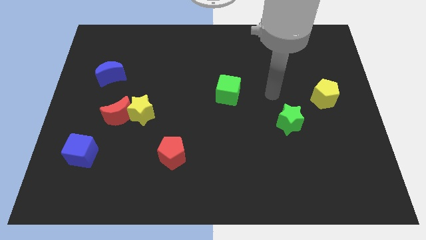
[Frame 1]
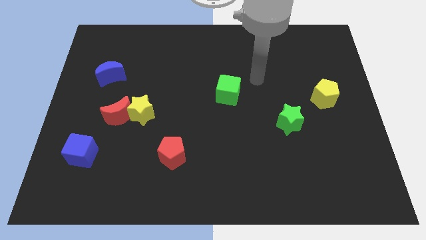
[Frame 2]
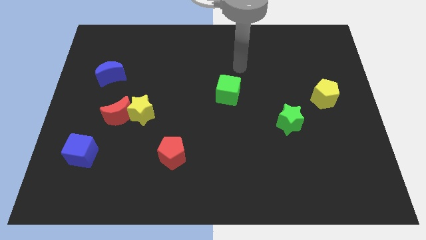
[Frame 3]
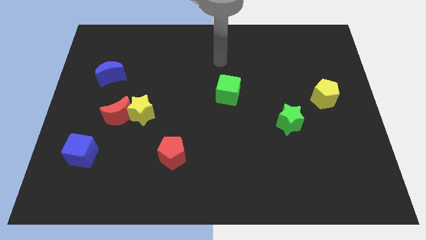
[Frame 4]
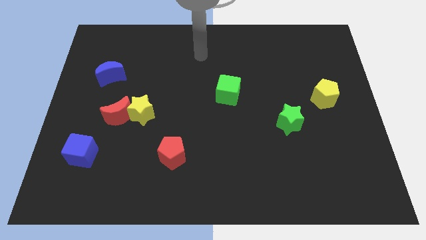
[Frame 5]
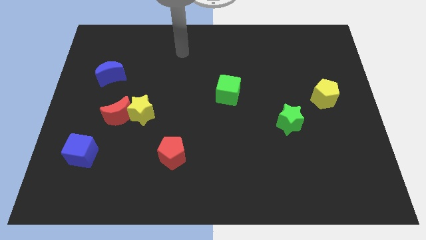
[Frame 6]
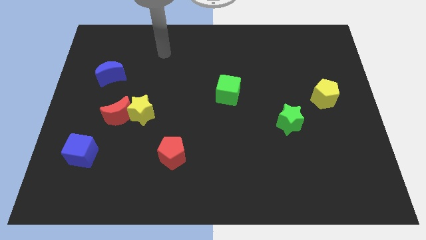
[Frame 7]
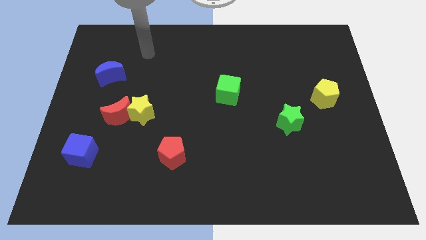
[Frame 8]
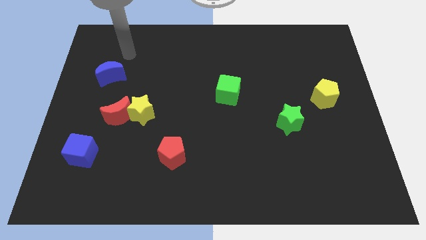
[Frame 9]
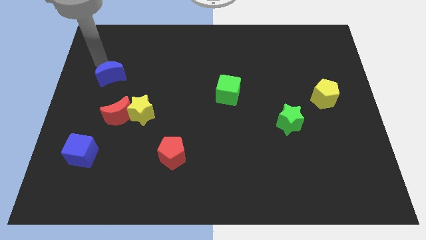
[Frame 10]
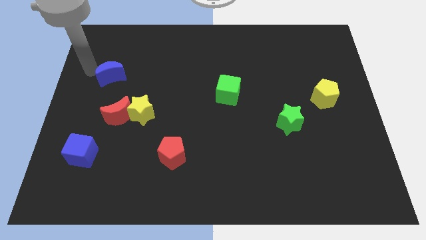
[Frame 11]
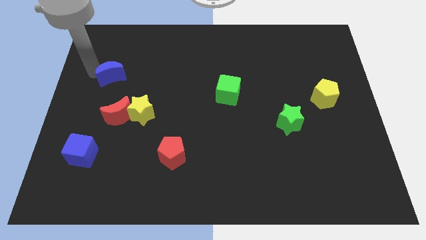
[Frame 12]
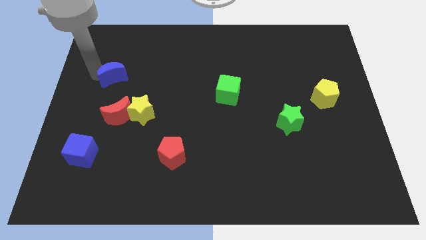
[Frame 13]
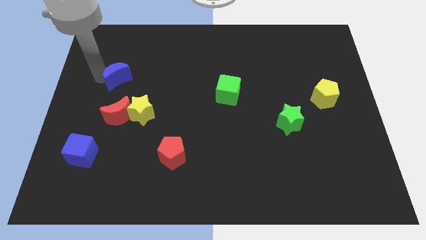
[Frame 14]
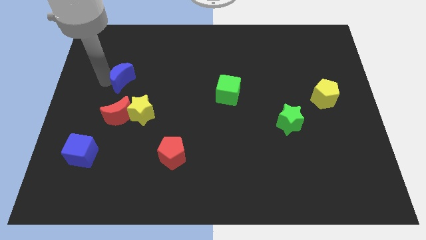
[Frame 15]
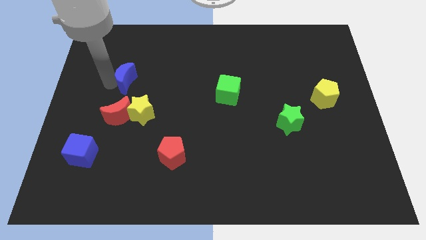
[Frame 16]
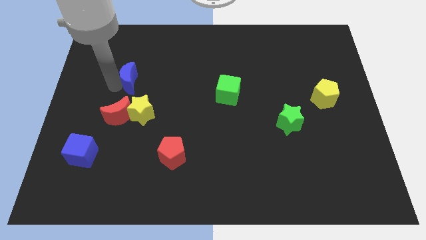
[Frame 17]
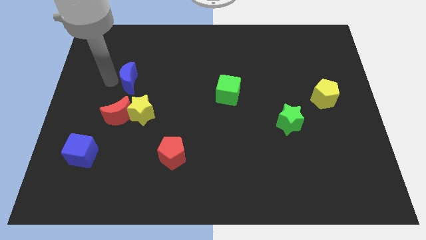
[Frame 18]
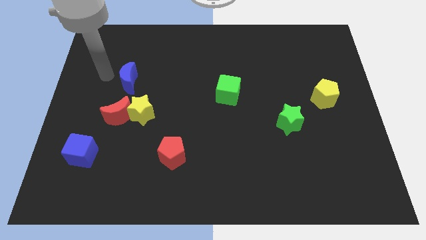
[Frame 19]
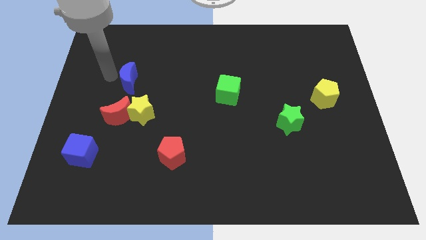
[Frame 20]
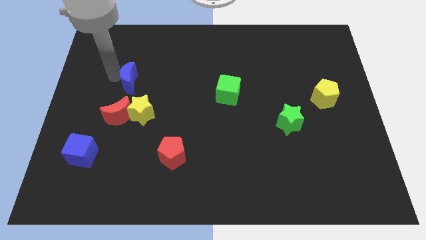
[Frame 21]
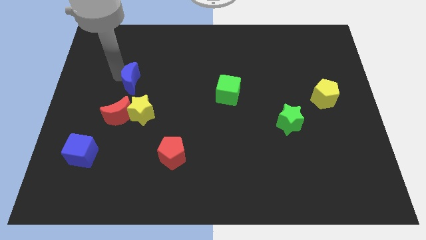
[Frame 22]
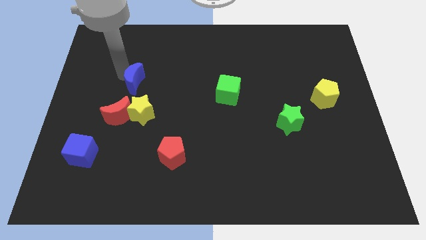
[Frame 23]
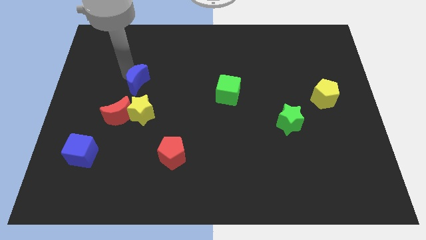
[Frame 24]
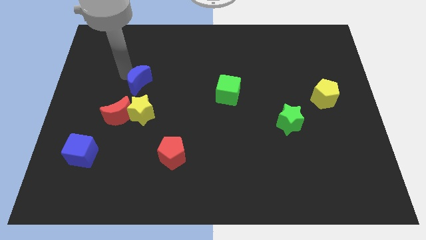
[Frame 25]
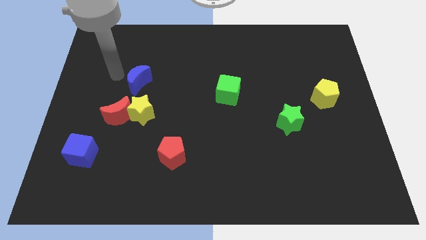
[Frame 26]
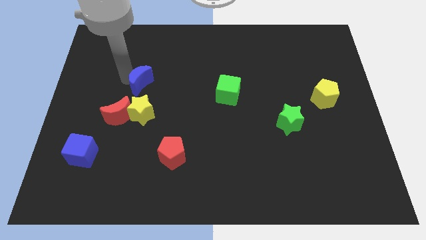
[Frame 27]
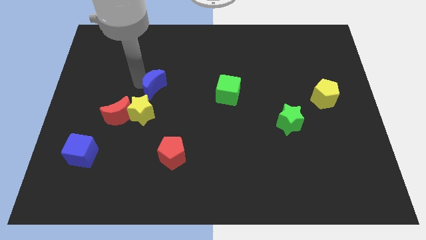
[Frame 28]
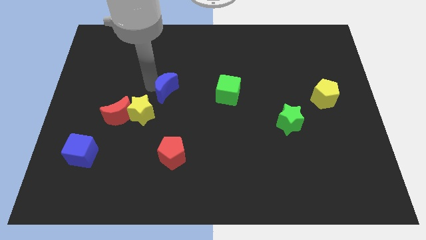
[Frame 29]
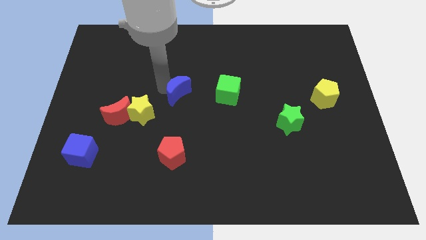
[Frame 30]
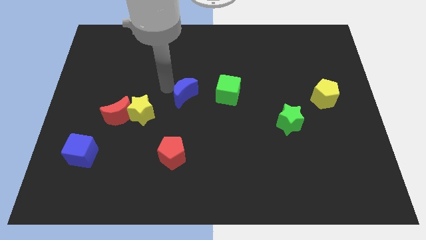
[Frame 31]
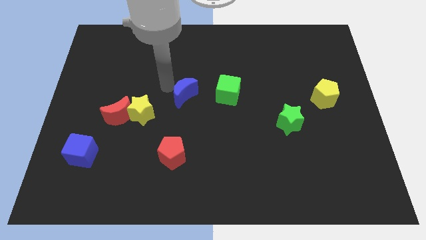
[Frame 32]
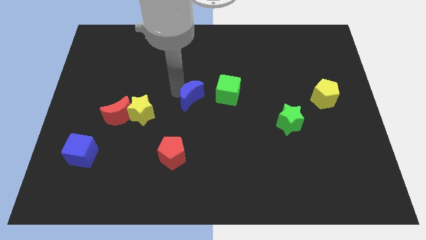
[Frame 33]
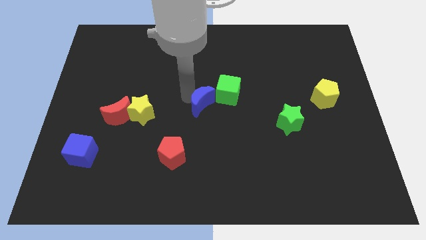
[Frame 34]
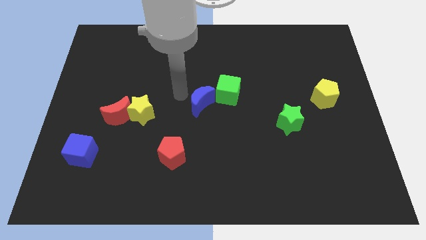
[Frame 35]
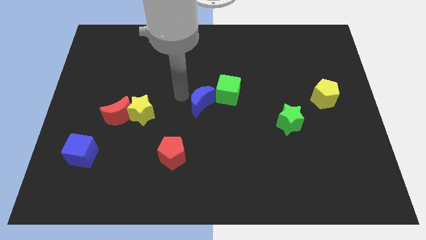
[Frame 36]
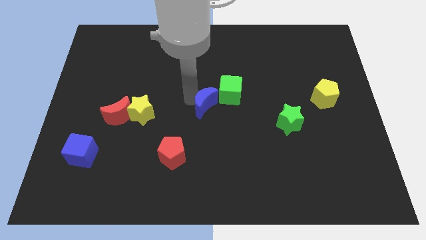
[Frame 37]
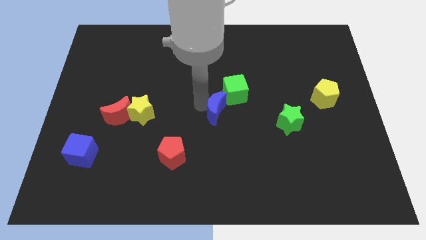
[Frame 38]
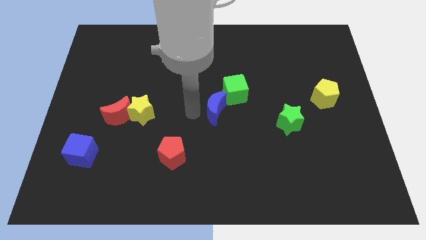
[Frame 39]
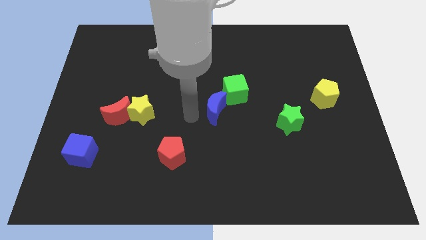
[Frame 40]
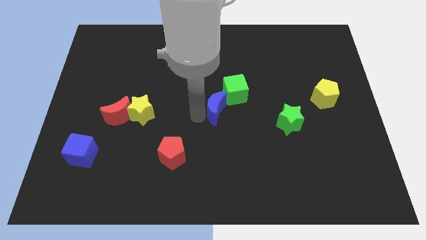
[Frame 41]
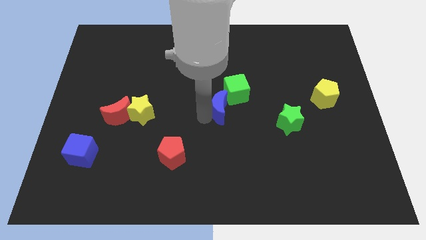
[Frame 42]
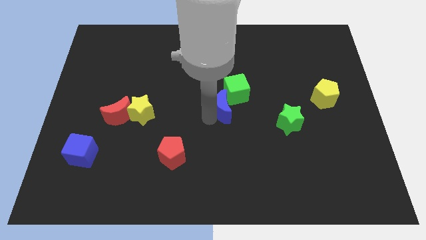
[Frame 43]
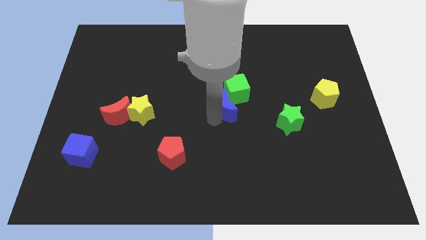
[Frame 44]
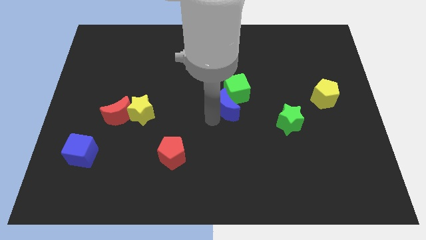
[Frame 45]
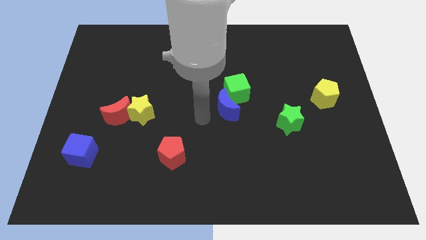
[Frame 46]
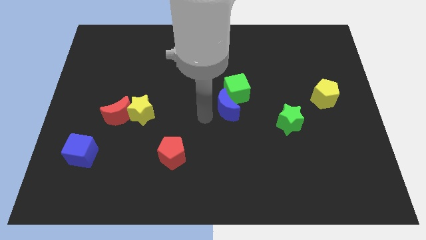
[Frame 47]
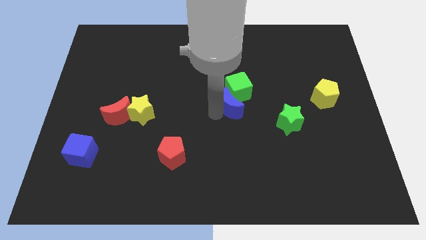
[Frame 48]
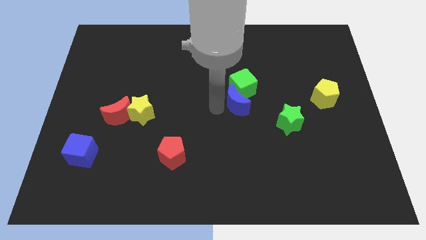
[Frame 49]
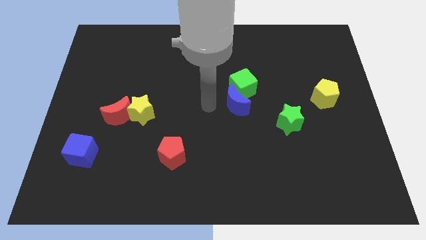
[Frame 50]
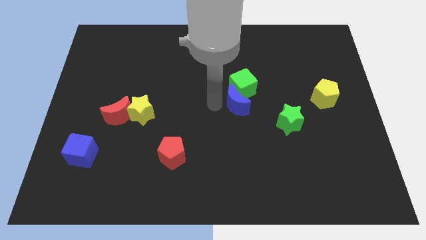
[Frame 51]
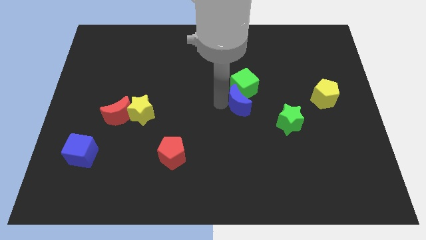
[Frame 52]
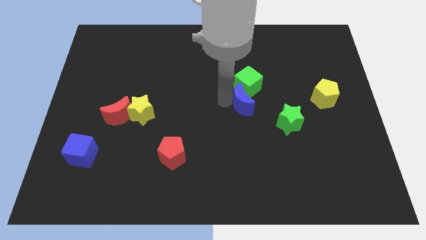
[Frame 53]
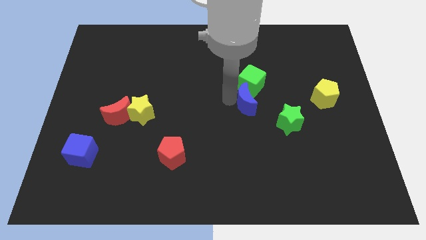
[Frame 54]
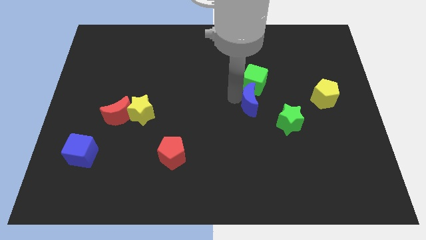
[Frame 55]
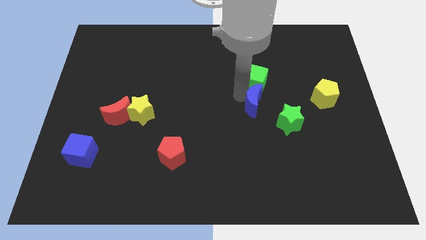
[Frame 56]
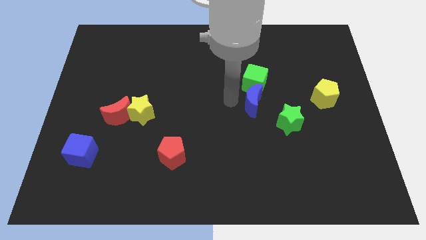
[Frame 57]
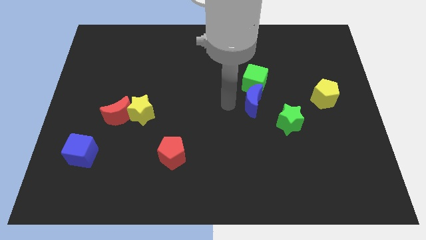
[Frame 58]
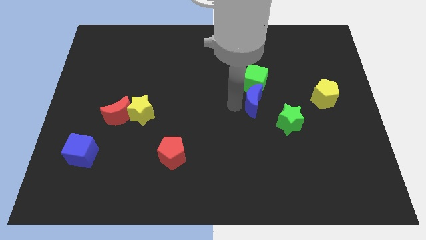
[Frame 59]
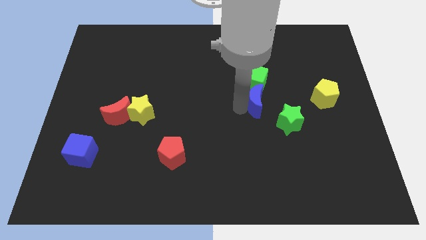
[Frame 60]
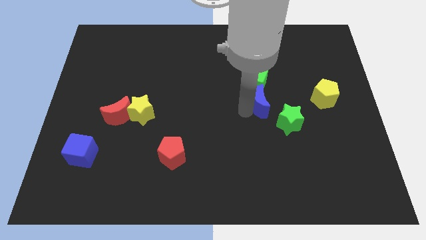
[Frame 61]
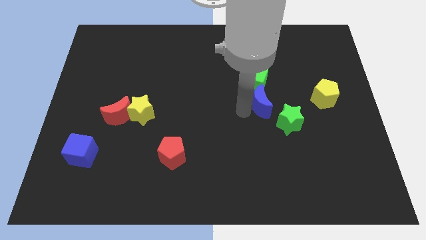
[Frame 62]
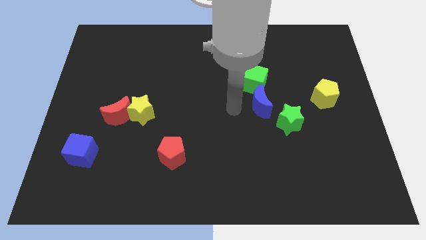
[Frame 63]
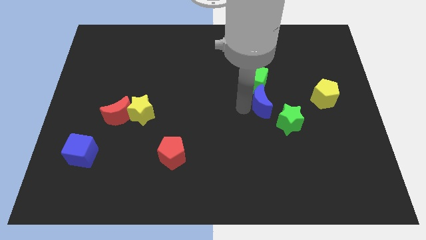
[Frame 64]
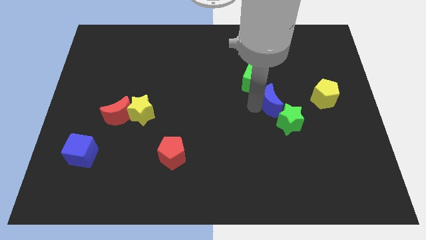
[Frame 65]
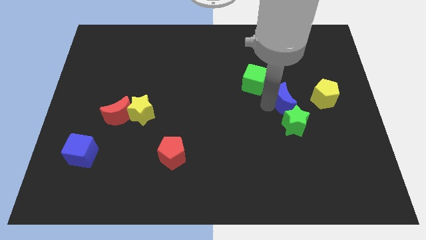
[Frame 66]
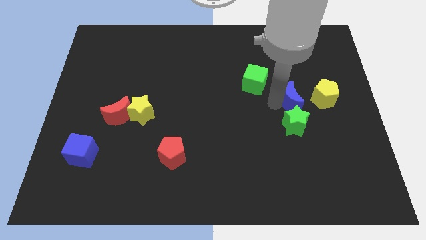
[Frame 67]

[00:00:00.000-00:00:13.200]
push the blue moon to the top right side of the green star
